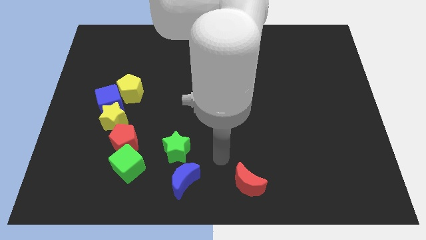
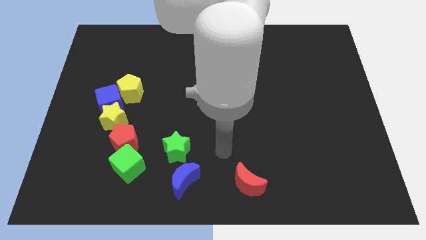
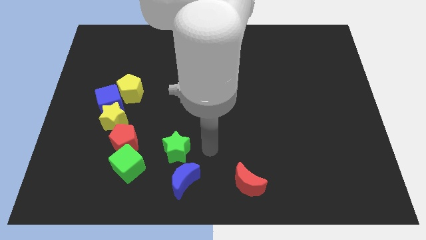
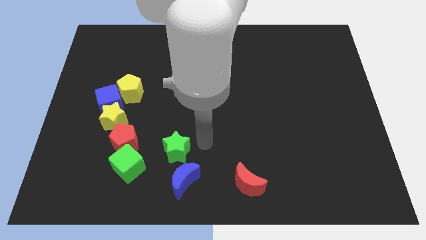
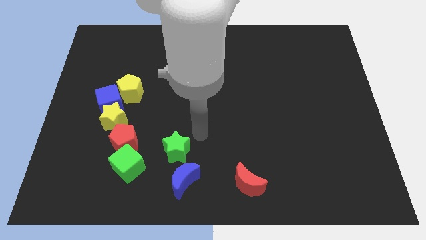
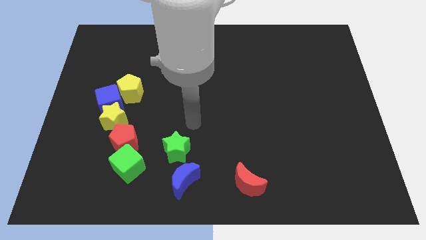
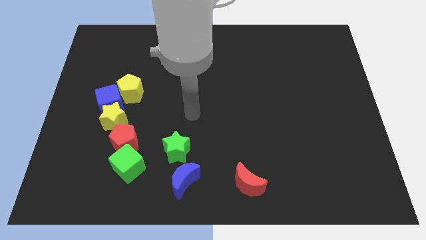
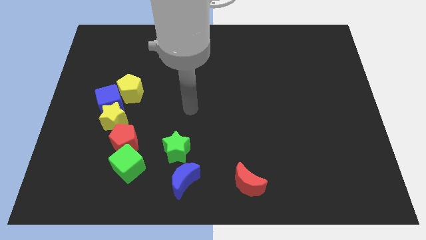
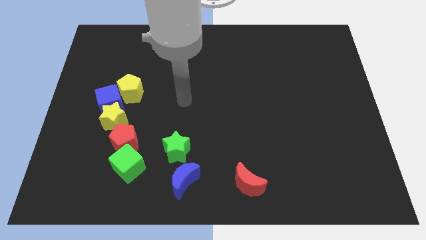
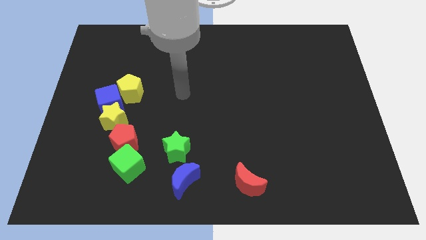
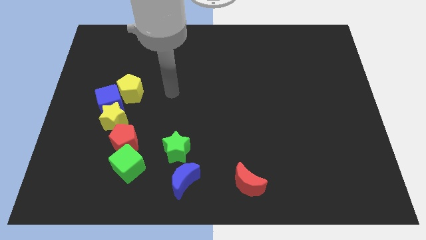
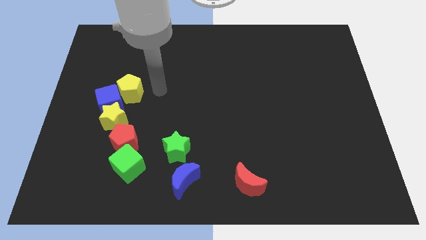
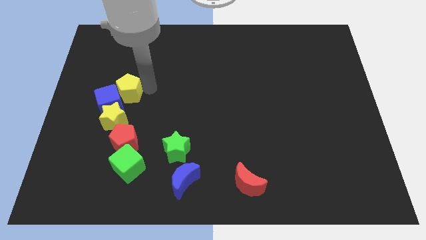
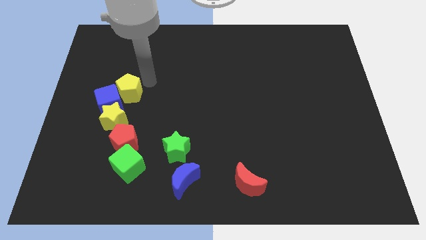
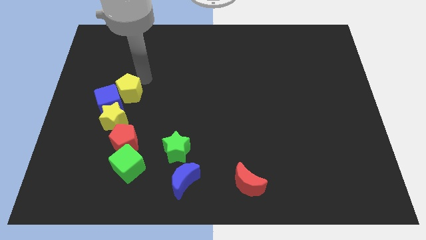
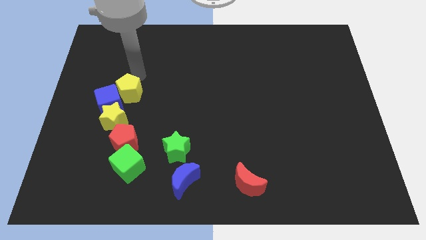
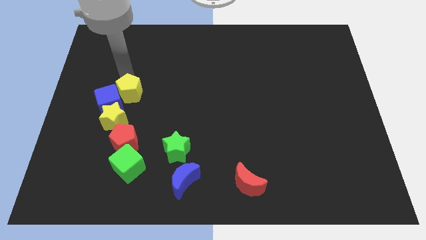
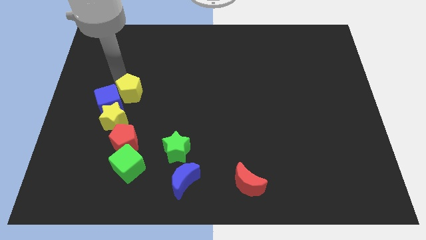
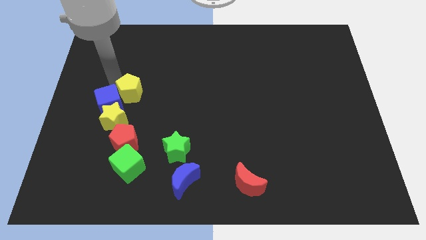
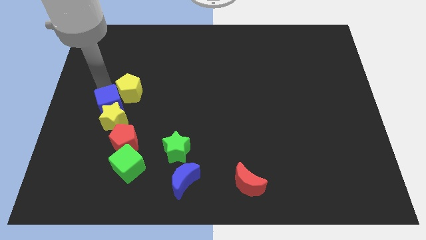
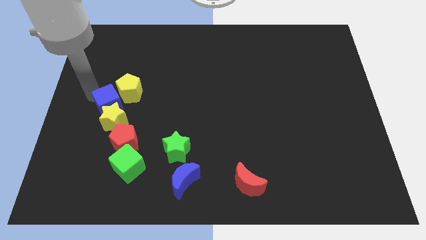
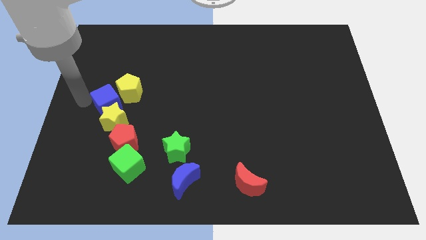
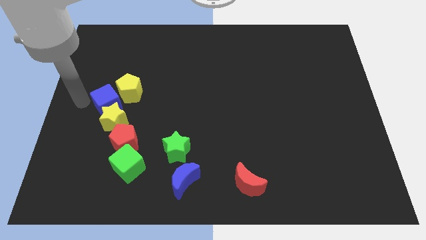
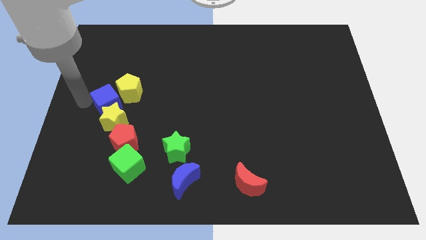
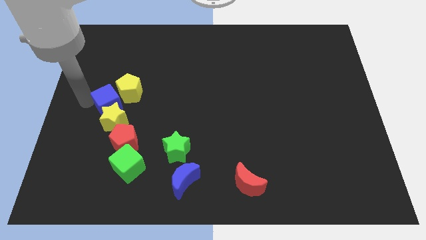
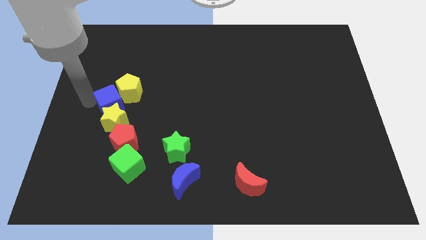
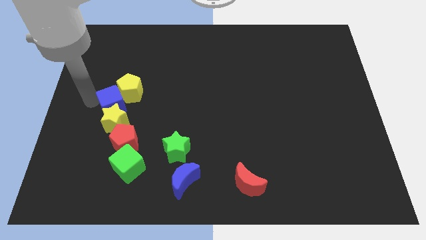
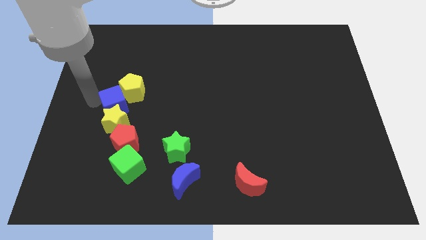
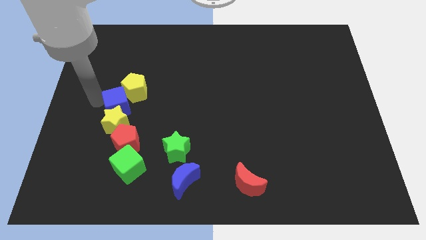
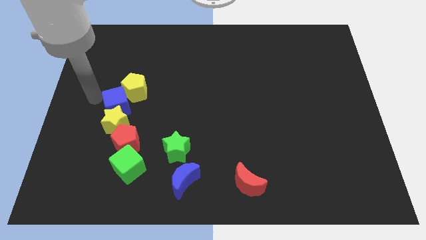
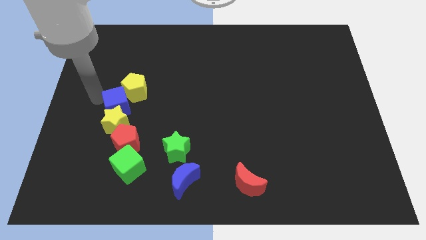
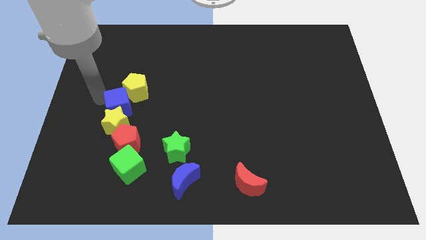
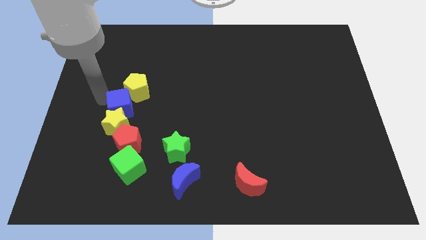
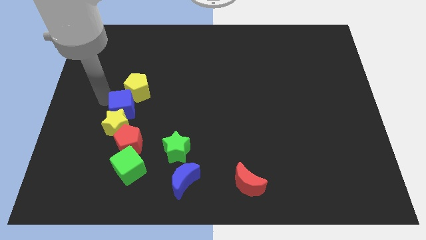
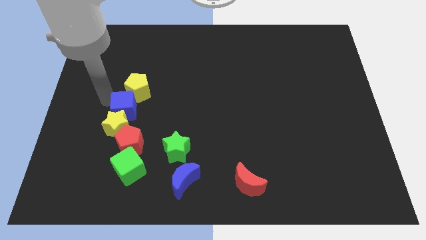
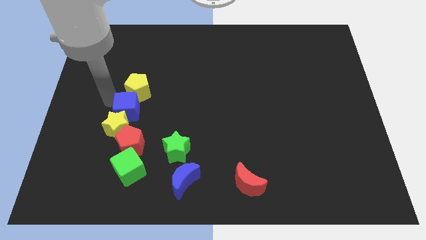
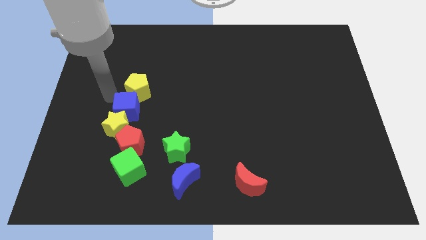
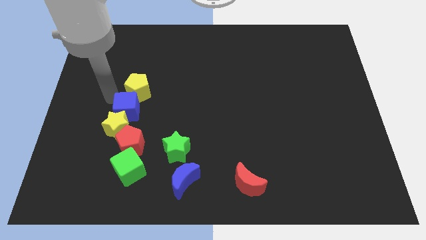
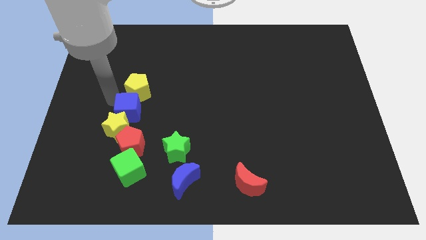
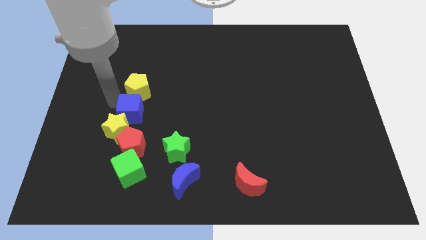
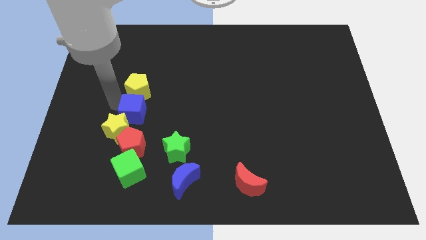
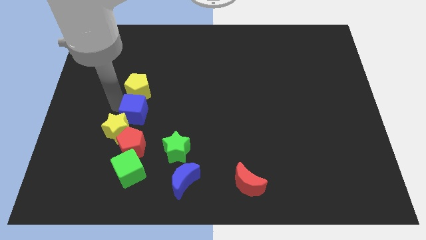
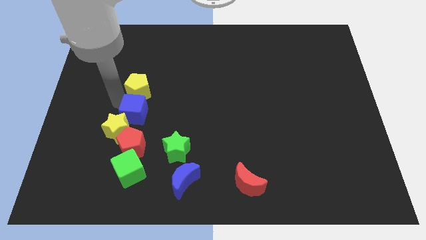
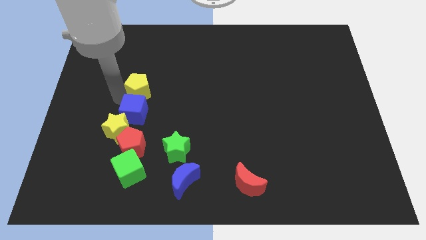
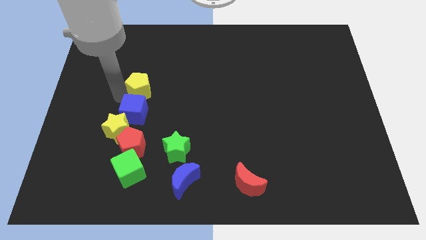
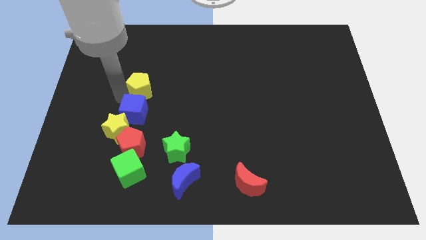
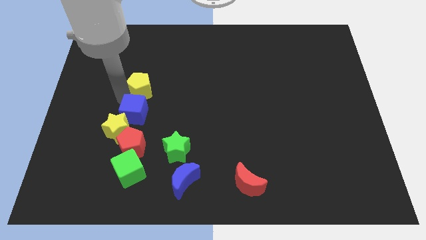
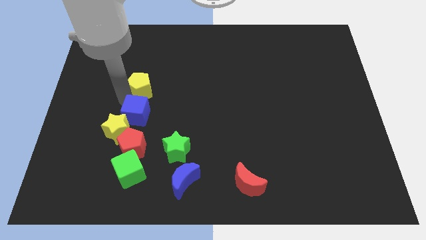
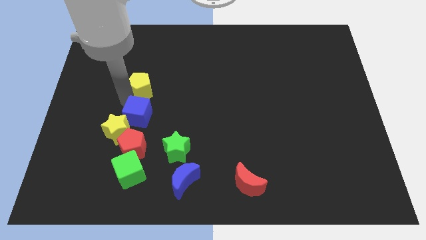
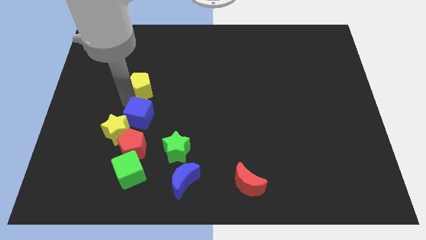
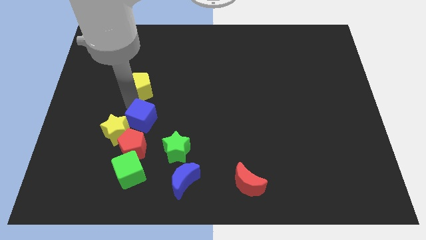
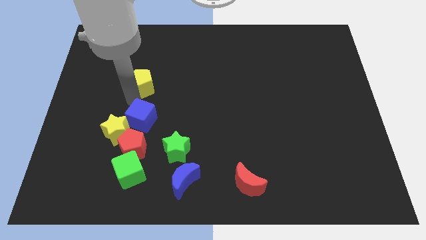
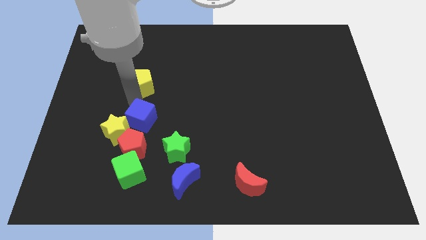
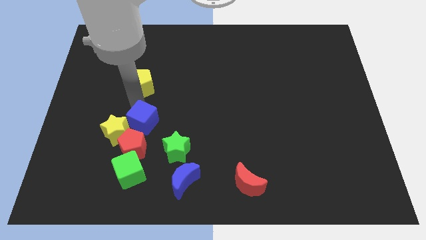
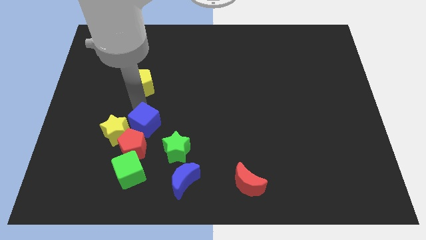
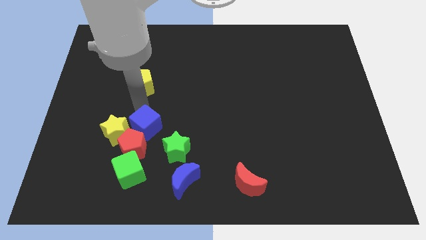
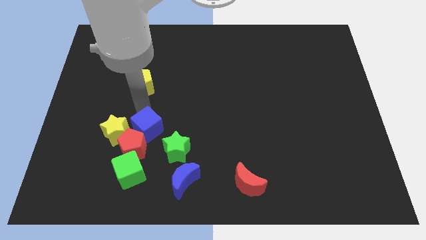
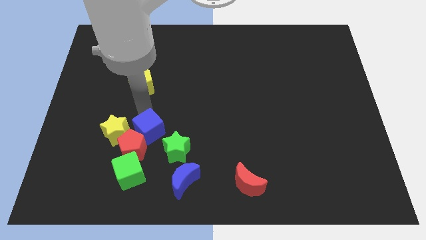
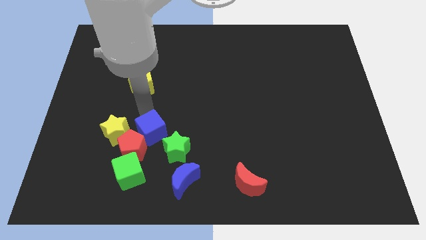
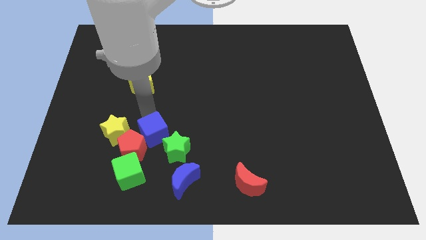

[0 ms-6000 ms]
move the blue cube diagonally up and to the right of the green cube

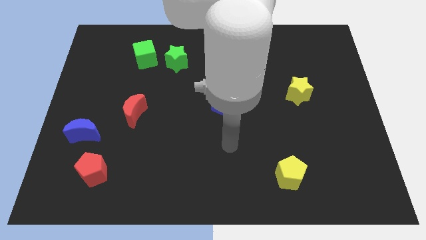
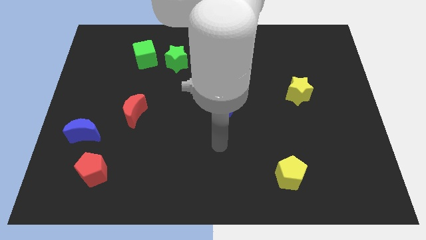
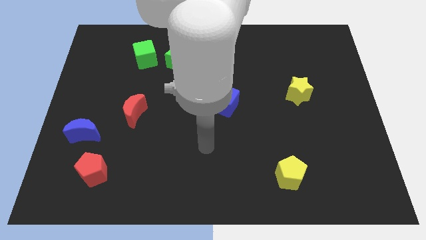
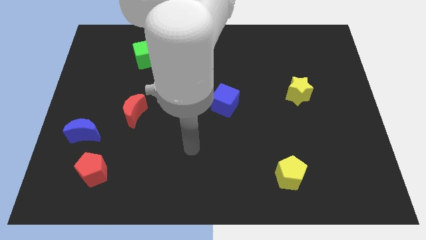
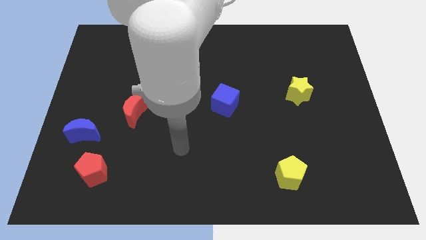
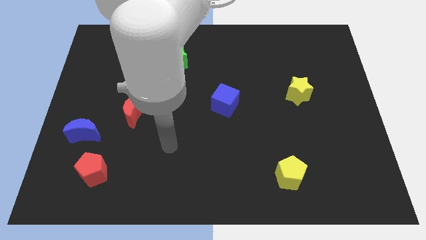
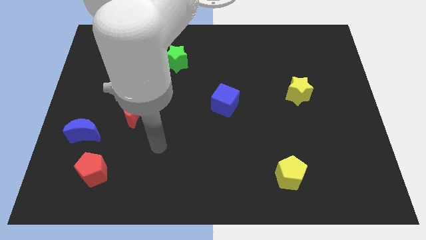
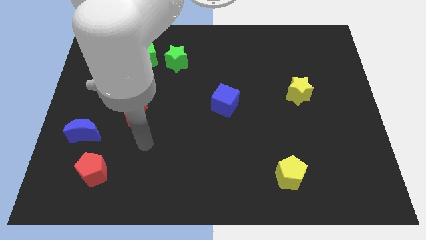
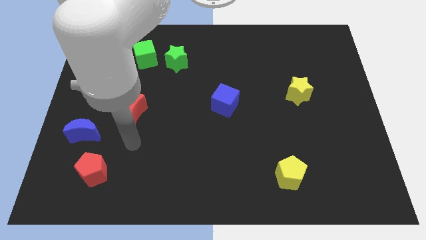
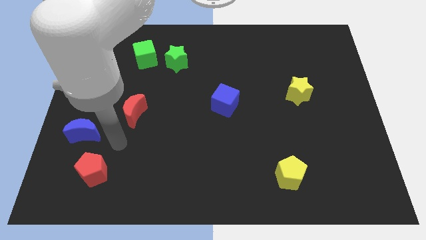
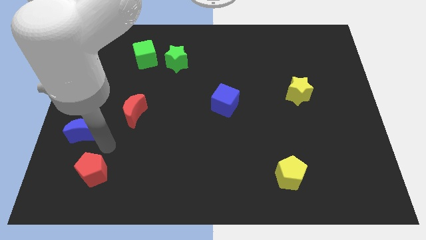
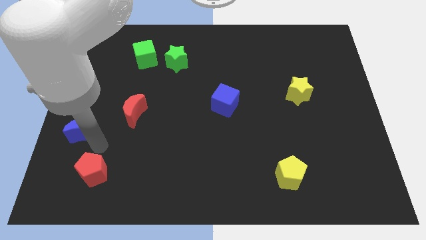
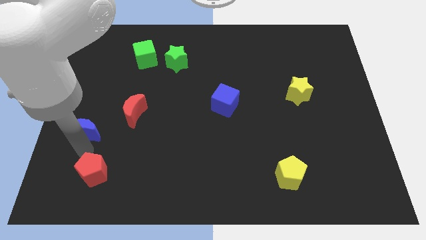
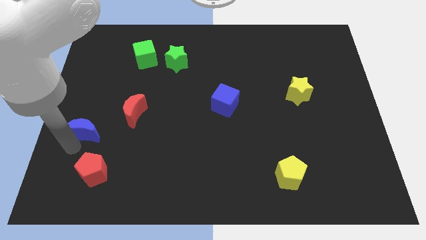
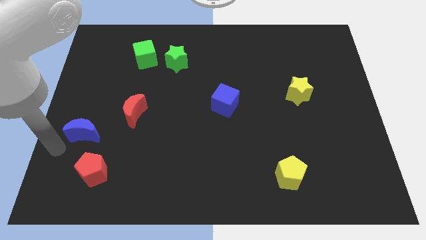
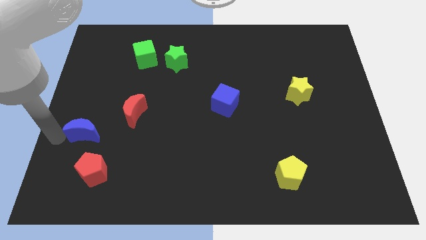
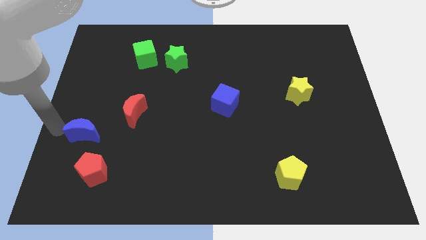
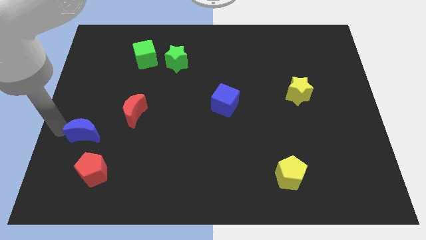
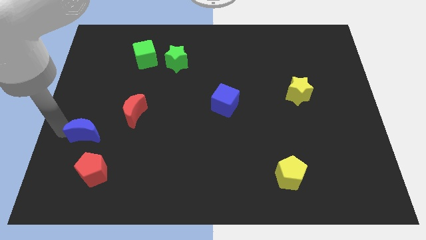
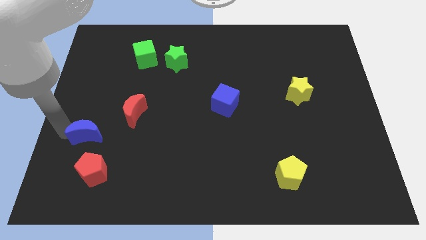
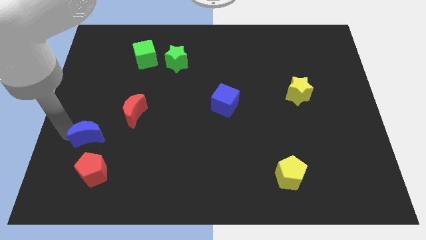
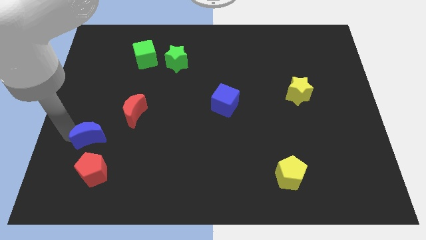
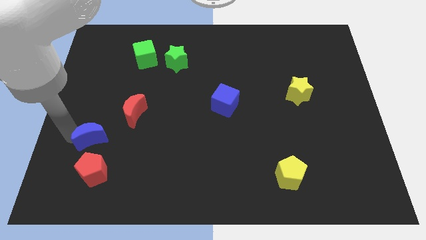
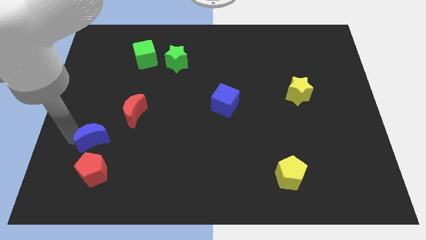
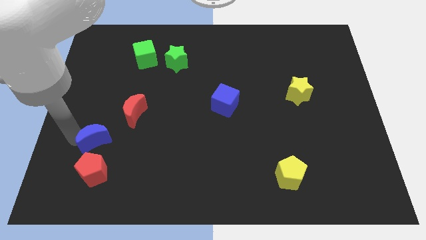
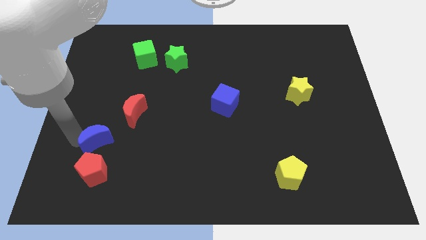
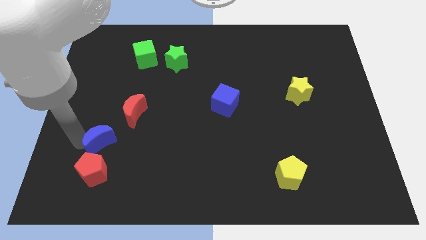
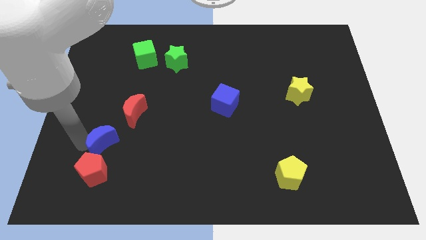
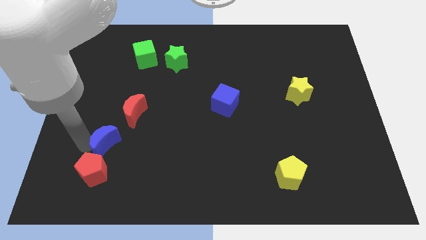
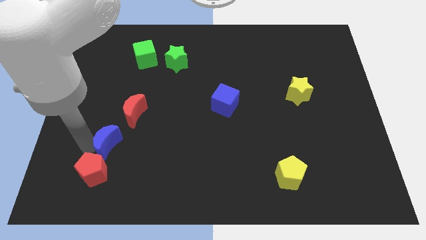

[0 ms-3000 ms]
put the blue moon below the red moon
